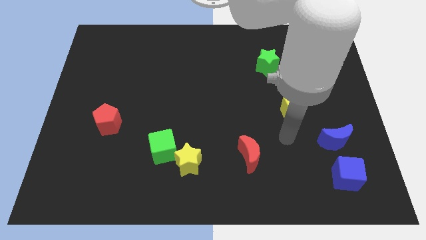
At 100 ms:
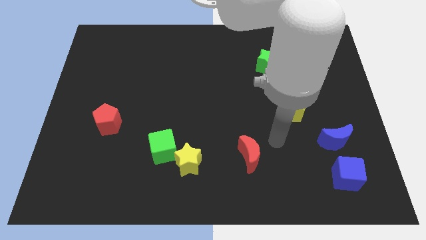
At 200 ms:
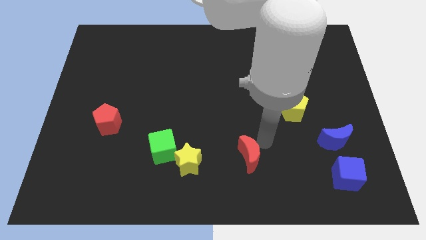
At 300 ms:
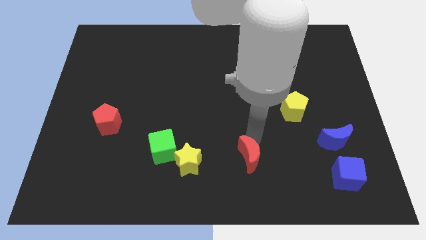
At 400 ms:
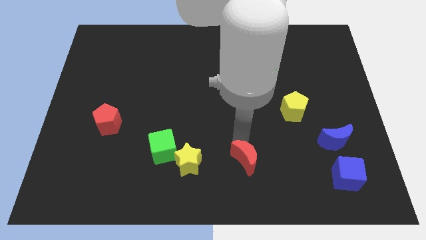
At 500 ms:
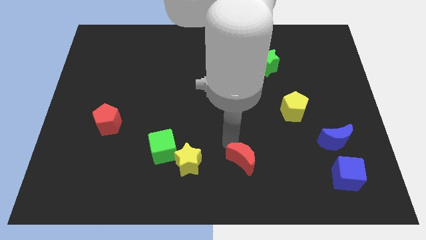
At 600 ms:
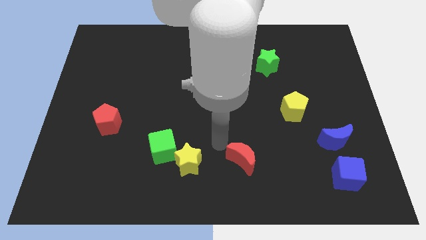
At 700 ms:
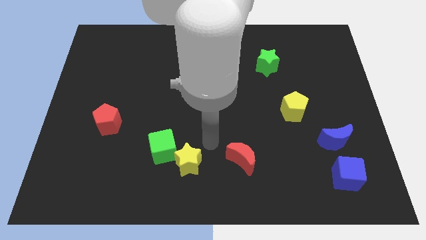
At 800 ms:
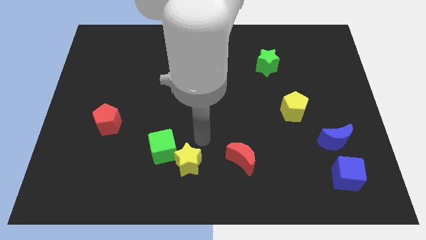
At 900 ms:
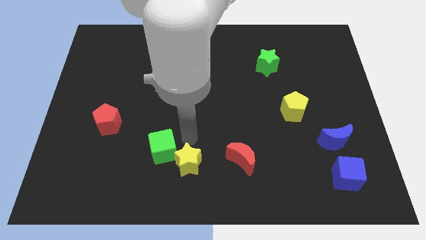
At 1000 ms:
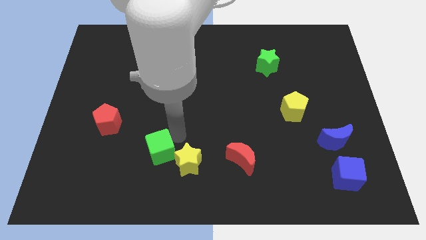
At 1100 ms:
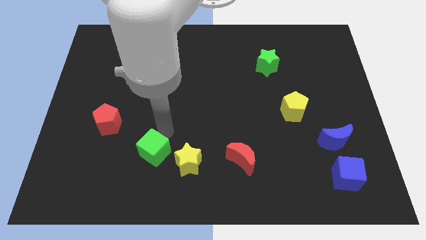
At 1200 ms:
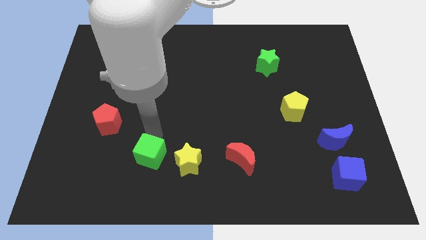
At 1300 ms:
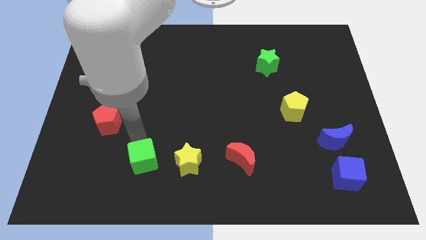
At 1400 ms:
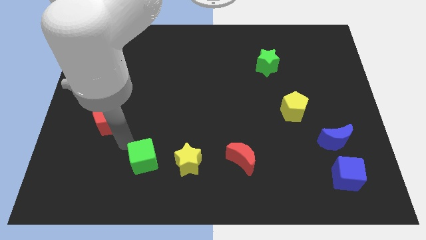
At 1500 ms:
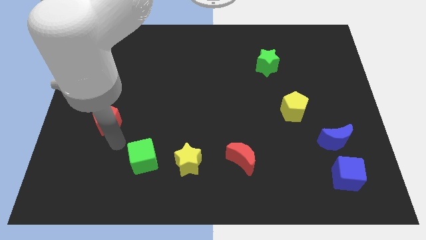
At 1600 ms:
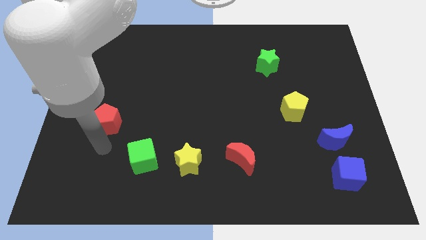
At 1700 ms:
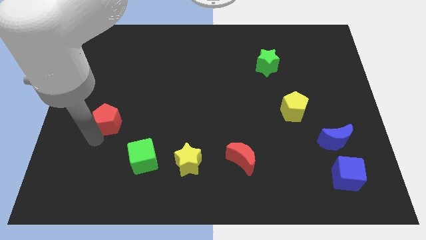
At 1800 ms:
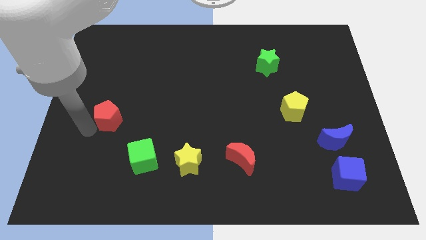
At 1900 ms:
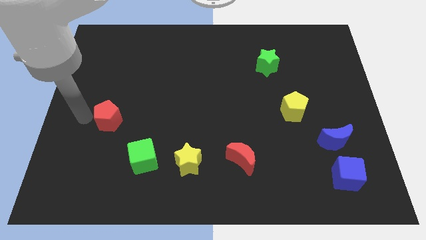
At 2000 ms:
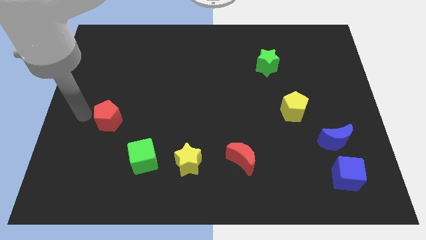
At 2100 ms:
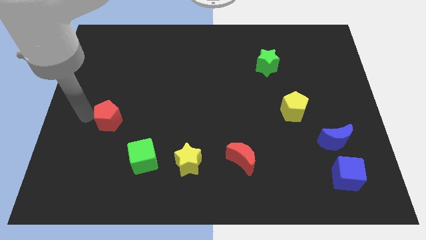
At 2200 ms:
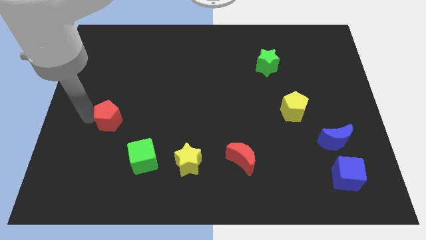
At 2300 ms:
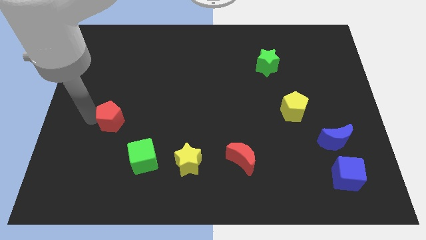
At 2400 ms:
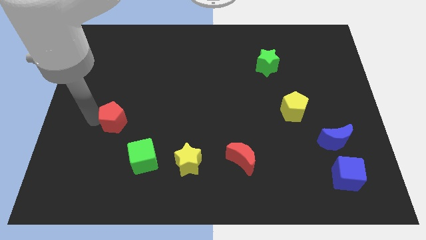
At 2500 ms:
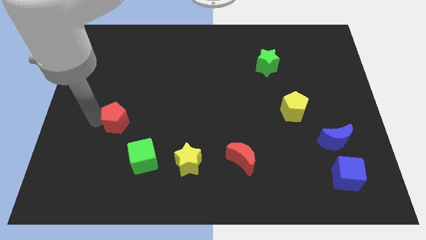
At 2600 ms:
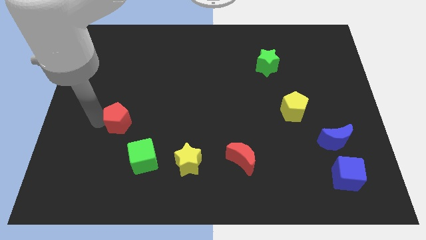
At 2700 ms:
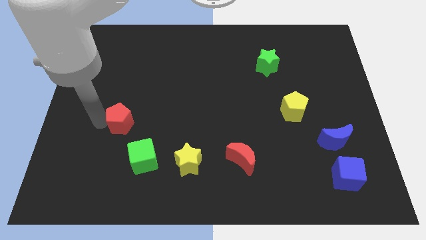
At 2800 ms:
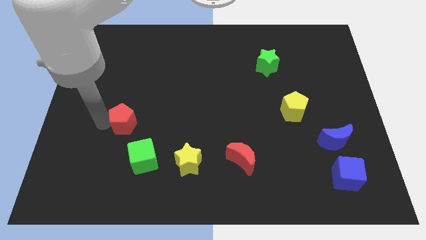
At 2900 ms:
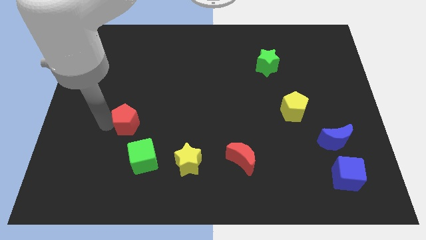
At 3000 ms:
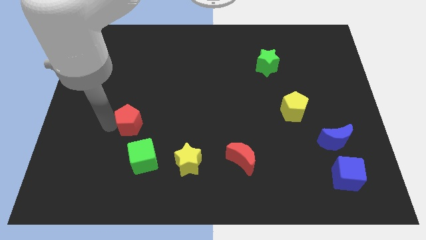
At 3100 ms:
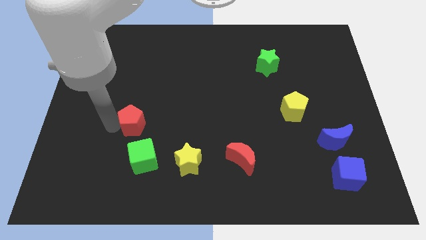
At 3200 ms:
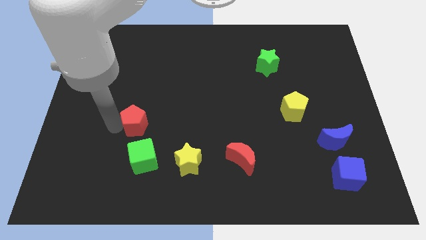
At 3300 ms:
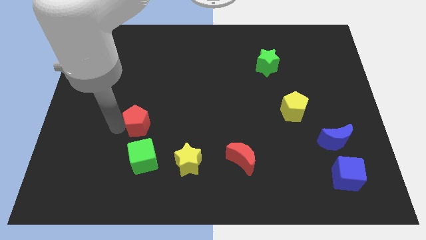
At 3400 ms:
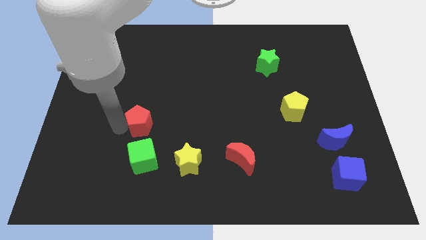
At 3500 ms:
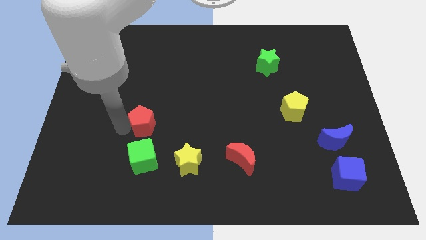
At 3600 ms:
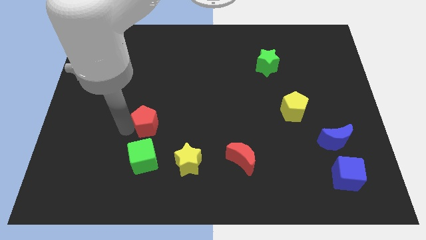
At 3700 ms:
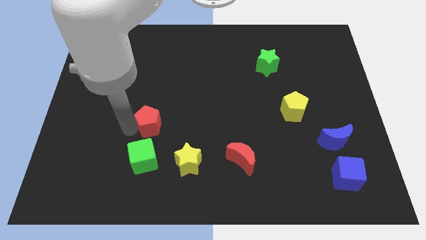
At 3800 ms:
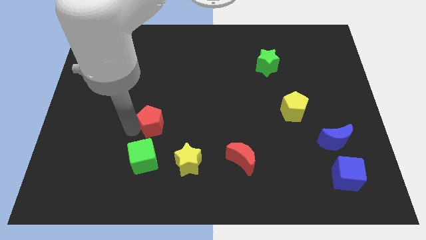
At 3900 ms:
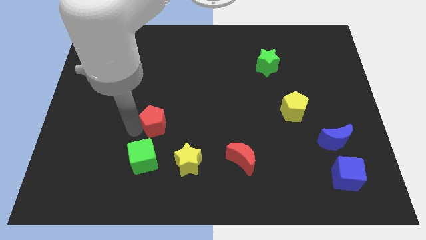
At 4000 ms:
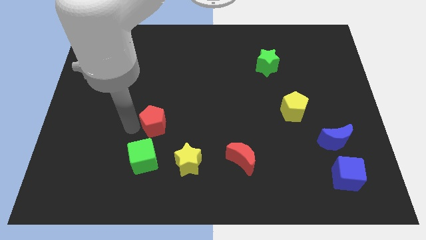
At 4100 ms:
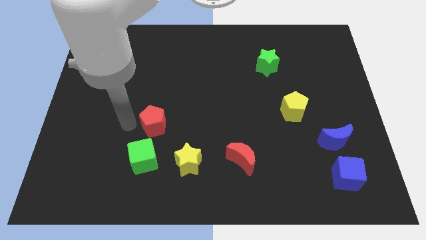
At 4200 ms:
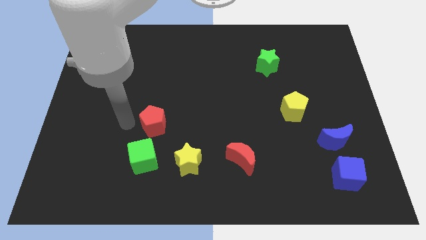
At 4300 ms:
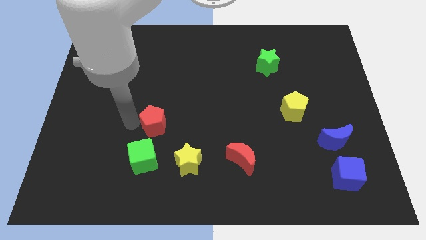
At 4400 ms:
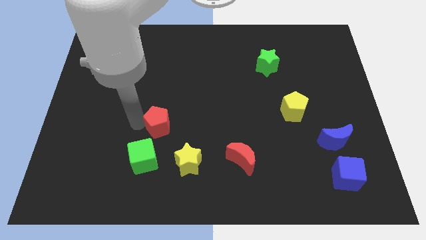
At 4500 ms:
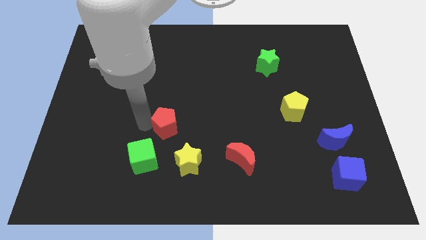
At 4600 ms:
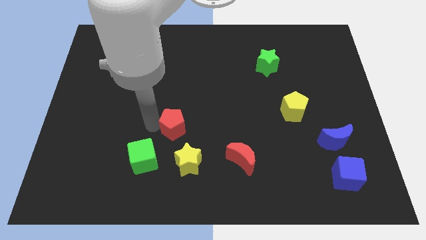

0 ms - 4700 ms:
move the red pentagon to the top of the yellow star

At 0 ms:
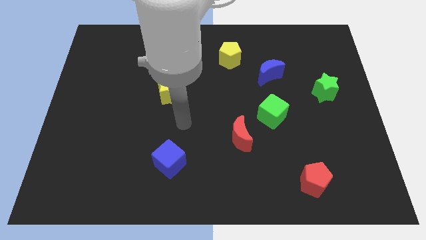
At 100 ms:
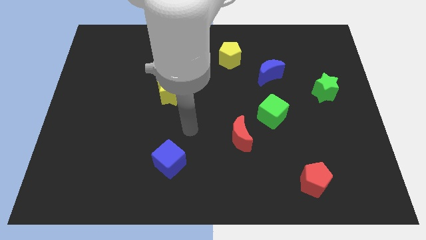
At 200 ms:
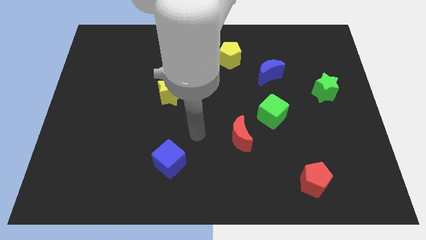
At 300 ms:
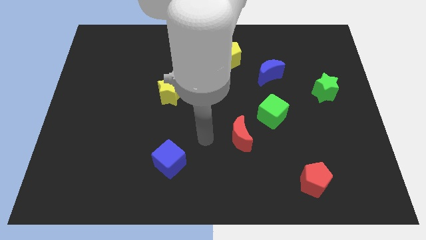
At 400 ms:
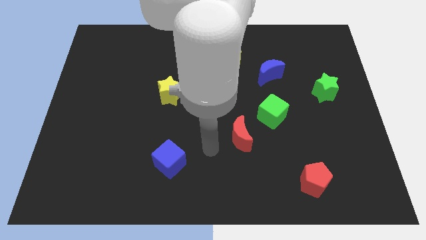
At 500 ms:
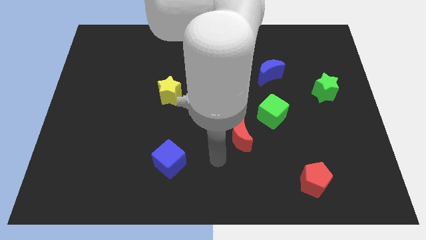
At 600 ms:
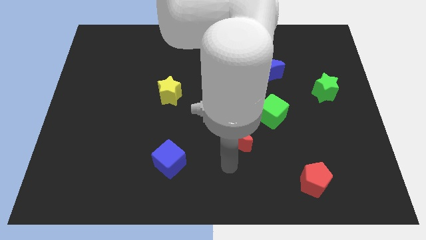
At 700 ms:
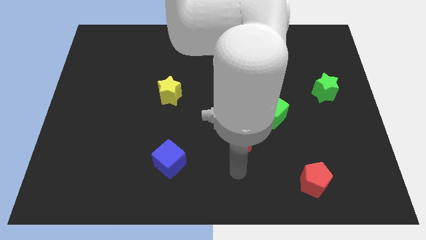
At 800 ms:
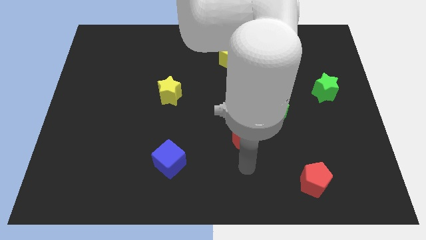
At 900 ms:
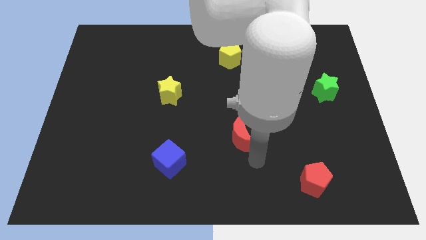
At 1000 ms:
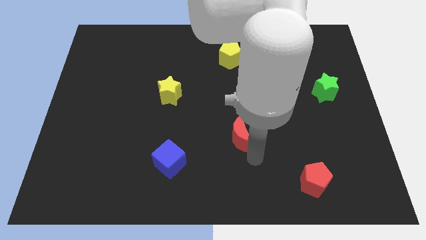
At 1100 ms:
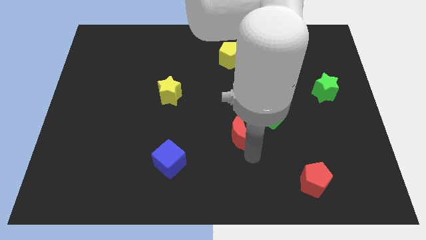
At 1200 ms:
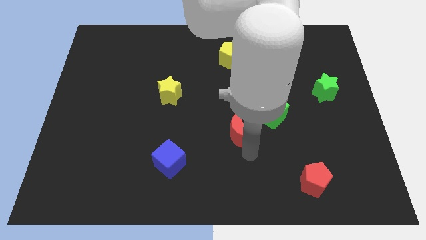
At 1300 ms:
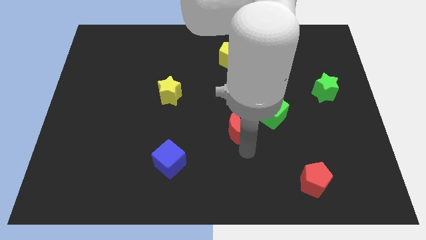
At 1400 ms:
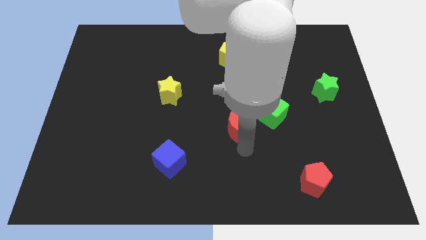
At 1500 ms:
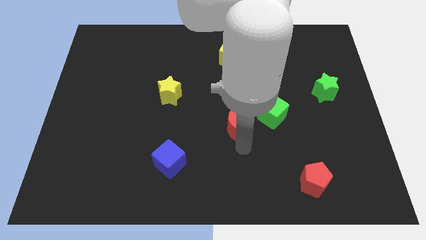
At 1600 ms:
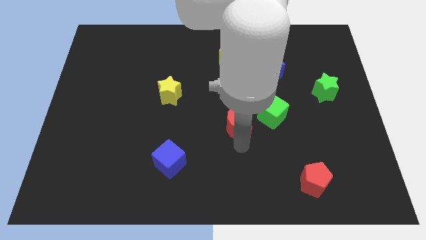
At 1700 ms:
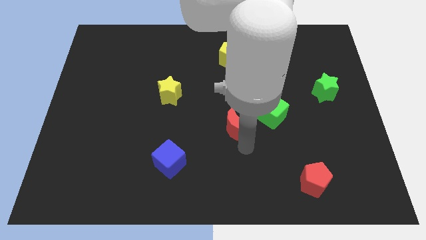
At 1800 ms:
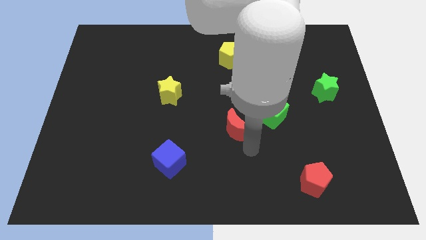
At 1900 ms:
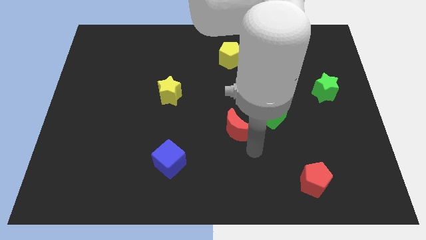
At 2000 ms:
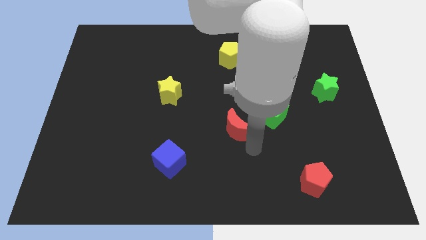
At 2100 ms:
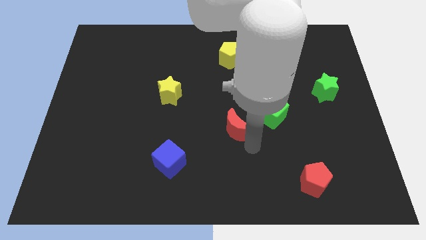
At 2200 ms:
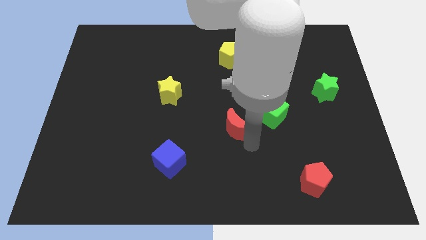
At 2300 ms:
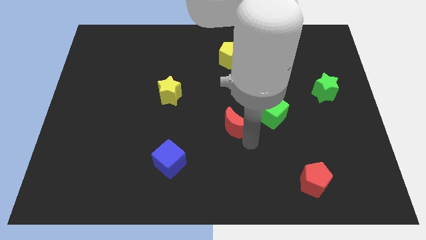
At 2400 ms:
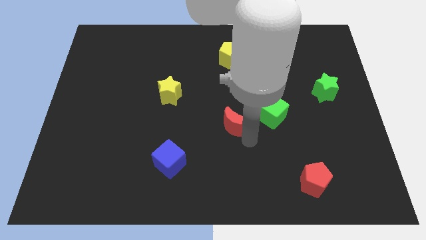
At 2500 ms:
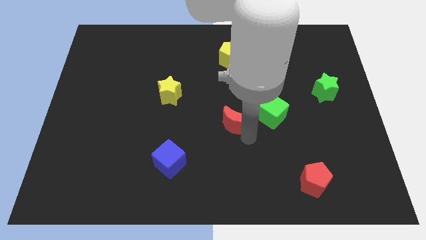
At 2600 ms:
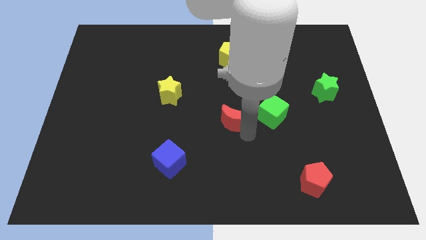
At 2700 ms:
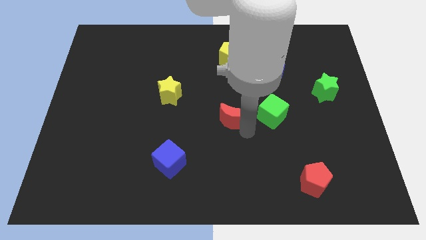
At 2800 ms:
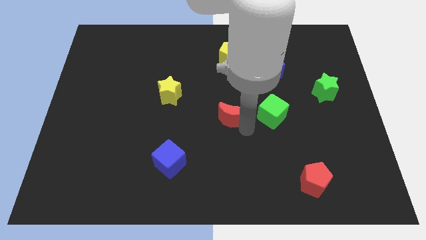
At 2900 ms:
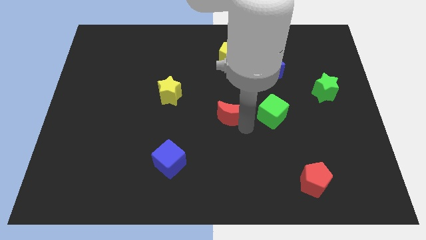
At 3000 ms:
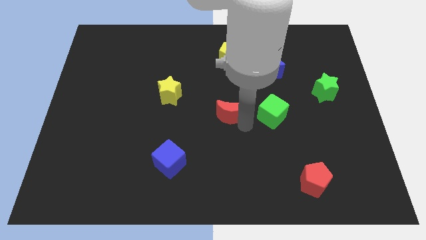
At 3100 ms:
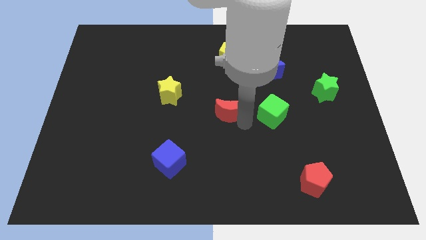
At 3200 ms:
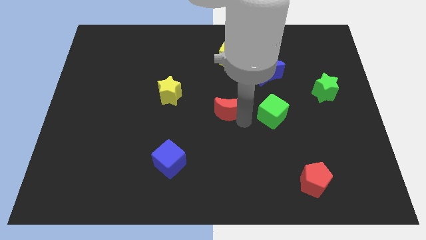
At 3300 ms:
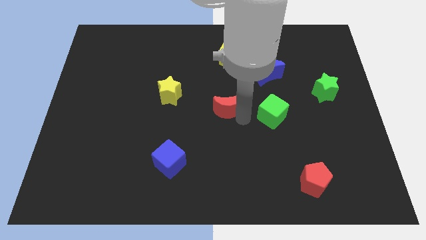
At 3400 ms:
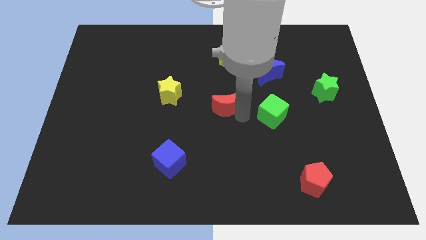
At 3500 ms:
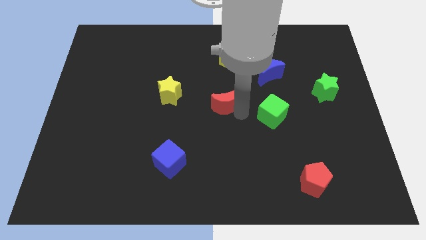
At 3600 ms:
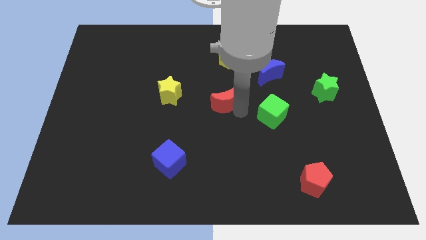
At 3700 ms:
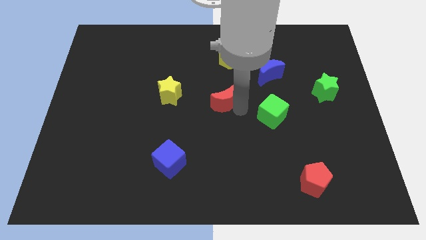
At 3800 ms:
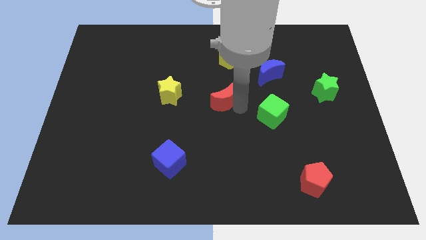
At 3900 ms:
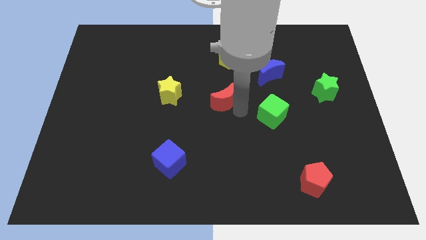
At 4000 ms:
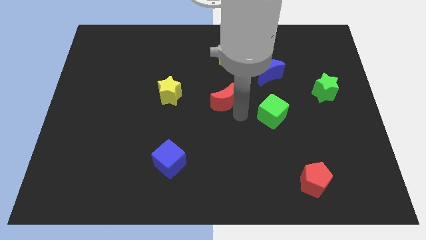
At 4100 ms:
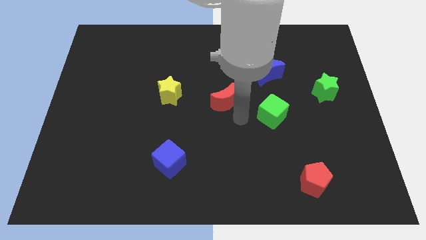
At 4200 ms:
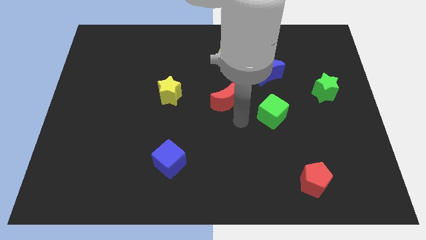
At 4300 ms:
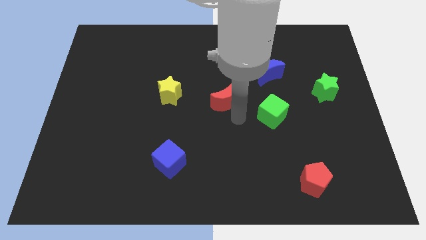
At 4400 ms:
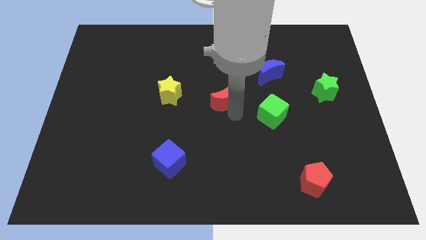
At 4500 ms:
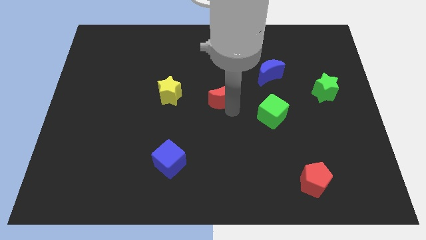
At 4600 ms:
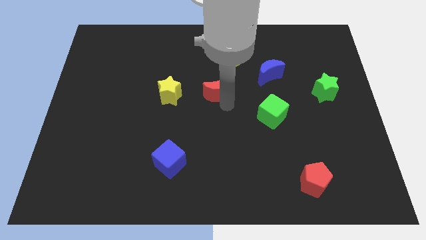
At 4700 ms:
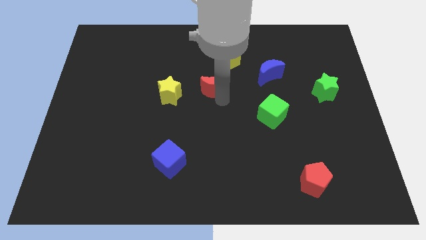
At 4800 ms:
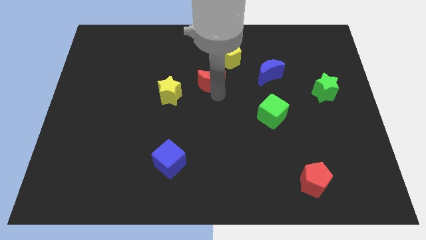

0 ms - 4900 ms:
put the red moon diagonally down and to the left of the yellow pentagon
